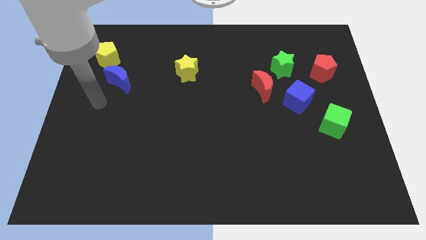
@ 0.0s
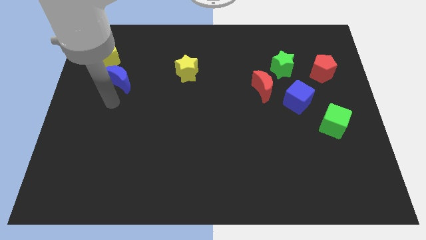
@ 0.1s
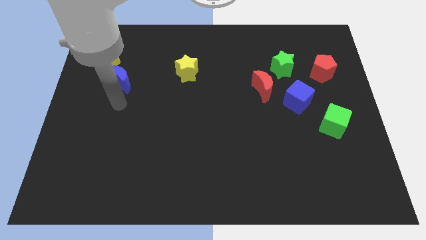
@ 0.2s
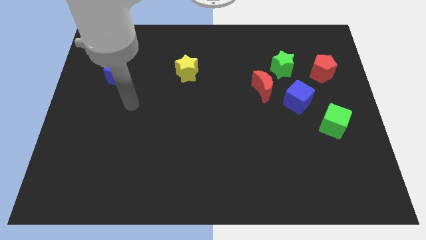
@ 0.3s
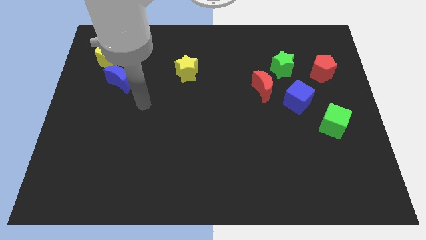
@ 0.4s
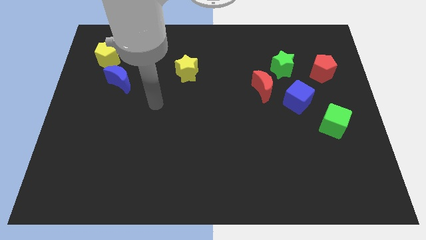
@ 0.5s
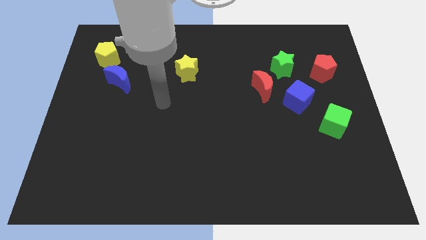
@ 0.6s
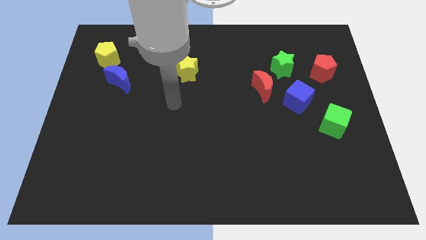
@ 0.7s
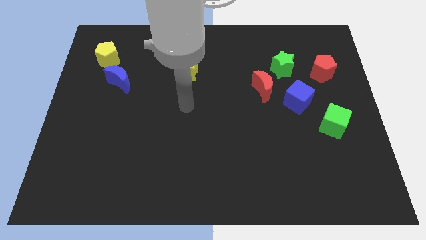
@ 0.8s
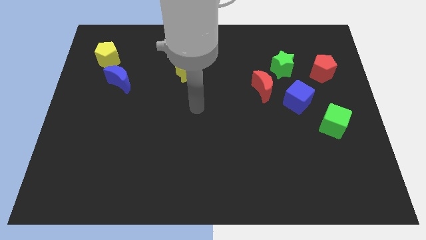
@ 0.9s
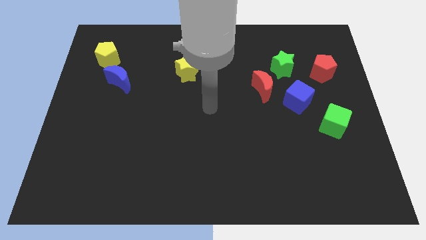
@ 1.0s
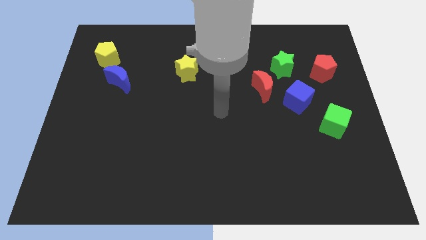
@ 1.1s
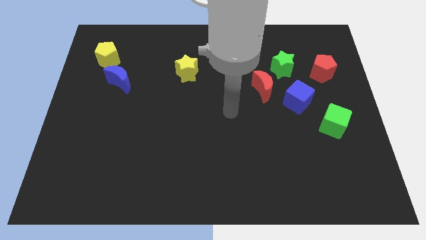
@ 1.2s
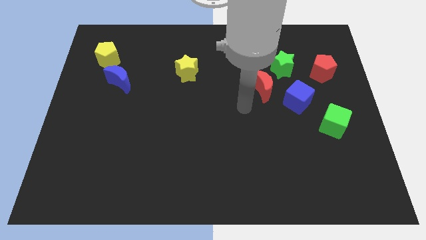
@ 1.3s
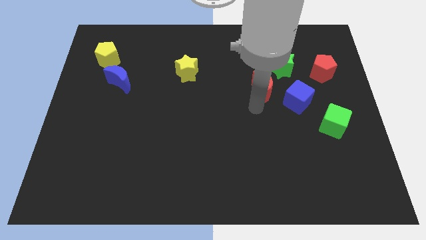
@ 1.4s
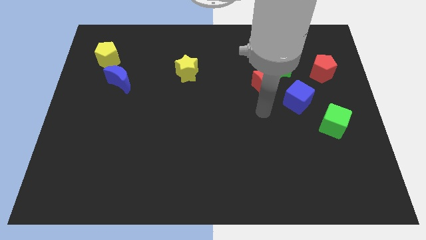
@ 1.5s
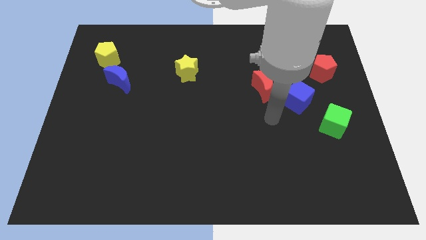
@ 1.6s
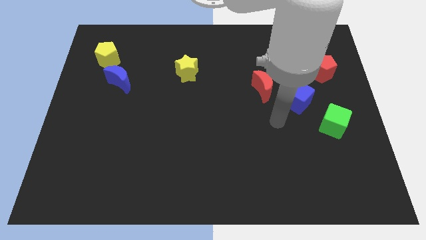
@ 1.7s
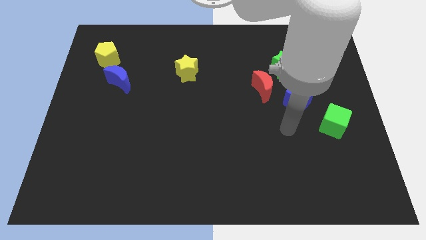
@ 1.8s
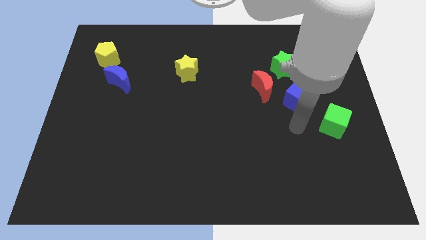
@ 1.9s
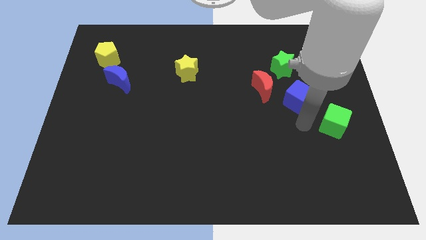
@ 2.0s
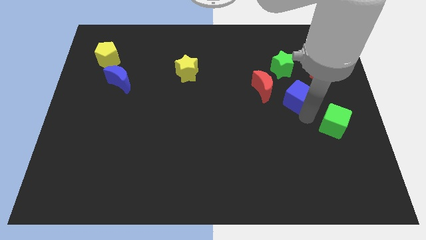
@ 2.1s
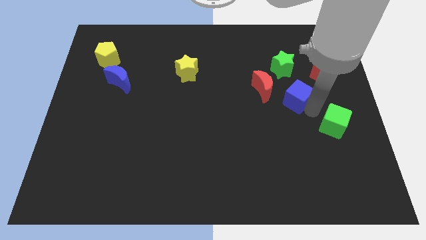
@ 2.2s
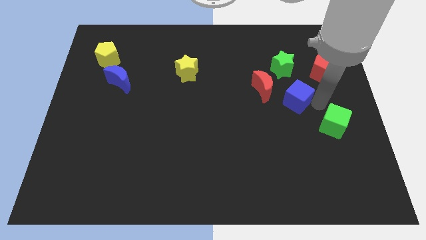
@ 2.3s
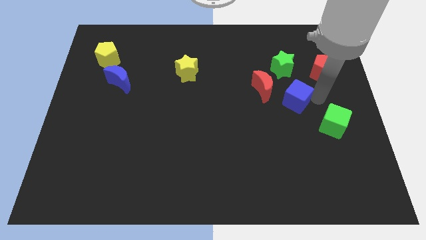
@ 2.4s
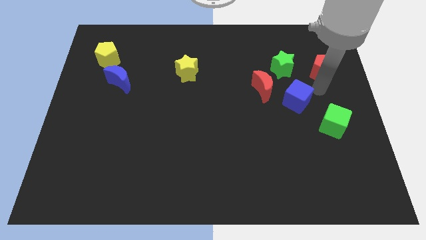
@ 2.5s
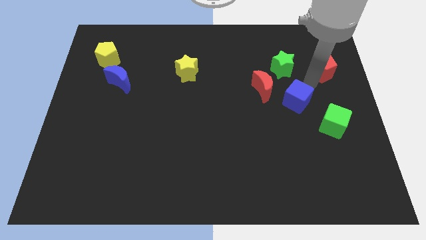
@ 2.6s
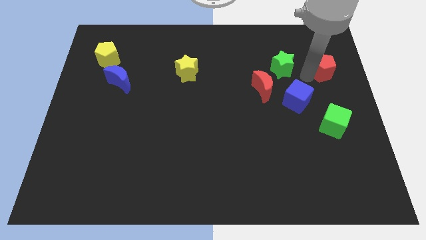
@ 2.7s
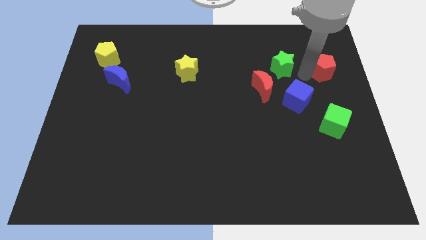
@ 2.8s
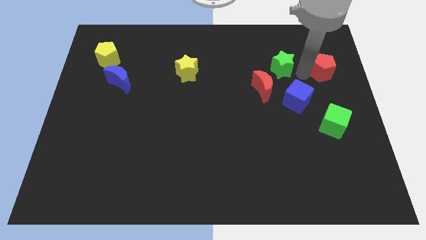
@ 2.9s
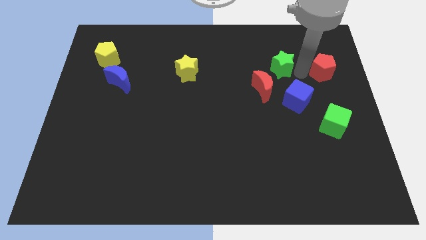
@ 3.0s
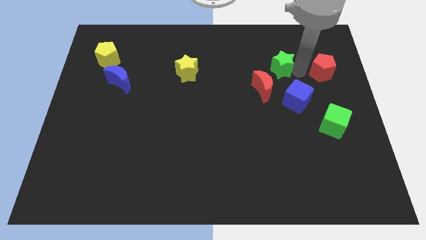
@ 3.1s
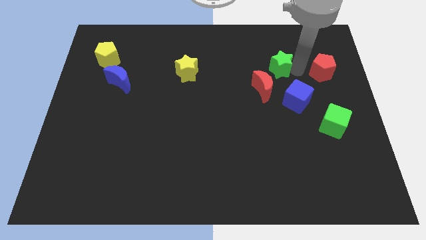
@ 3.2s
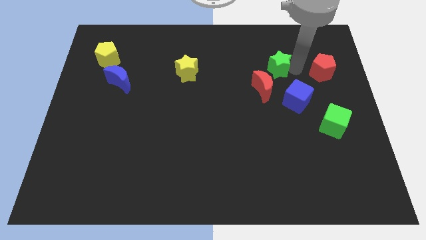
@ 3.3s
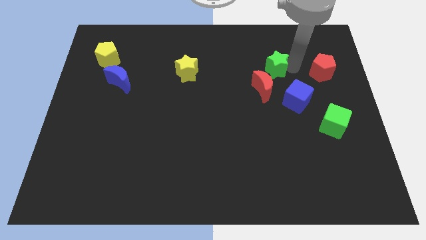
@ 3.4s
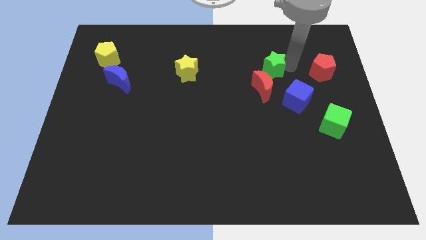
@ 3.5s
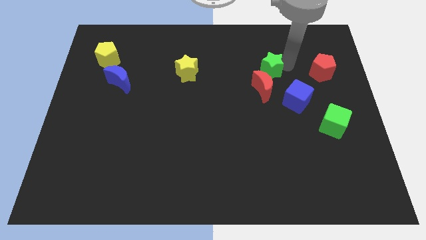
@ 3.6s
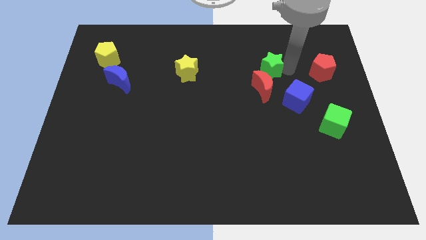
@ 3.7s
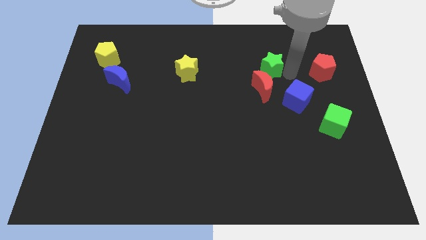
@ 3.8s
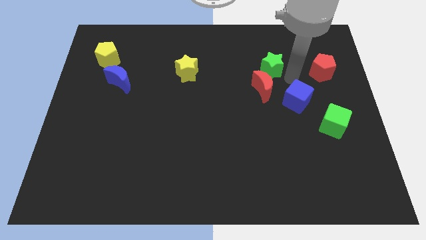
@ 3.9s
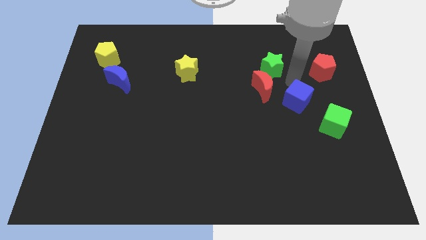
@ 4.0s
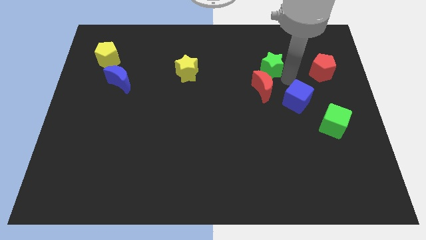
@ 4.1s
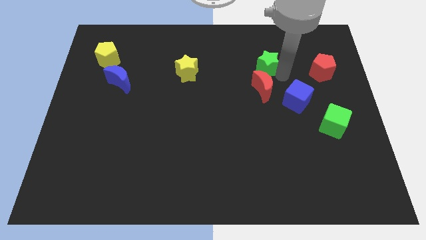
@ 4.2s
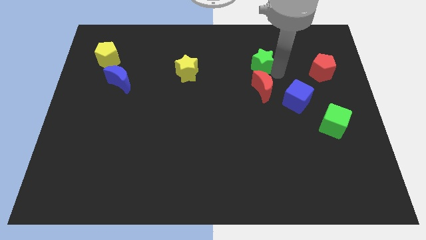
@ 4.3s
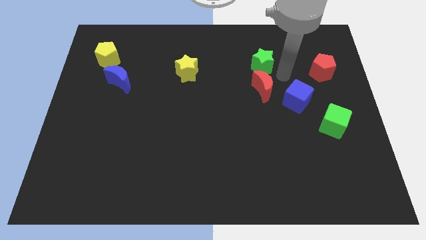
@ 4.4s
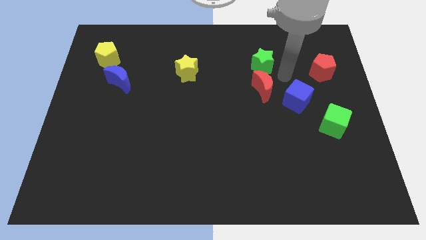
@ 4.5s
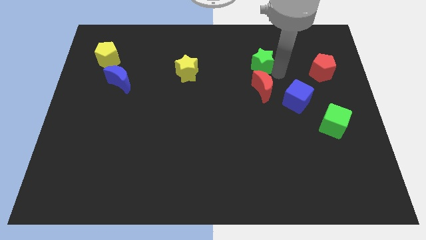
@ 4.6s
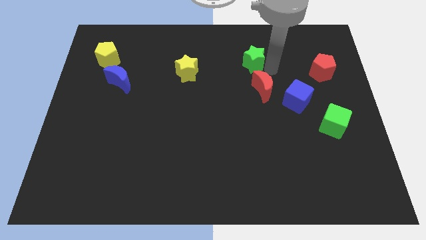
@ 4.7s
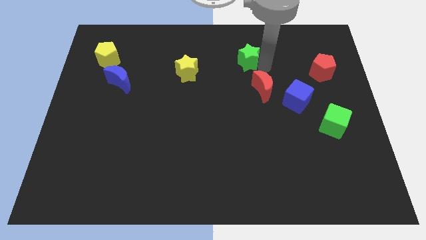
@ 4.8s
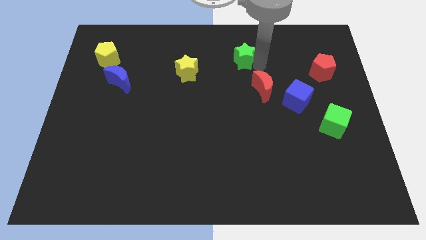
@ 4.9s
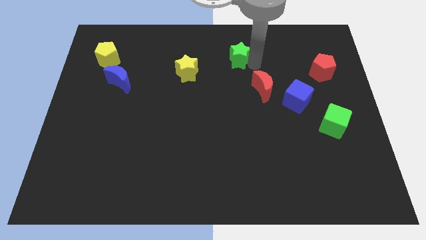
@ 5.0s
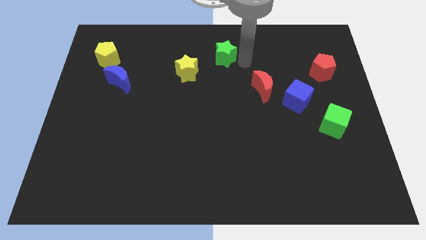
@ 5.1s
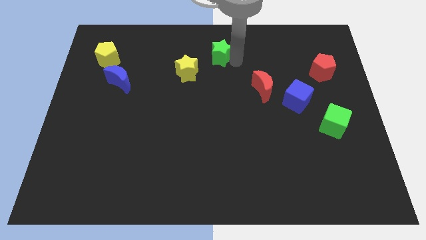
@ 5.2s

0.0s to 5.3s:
move the green star to the top side

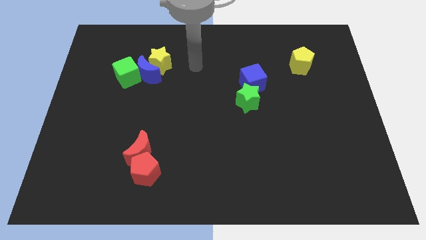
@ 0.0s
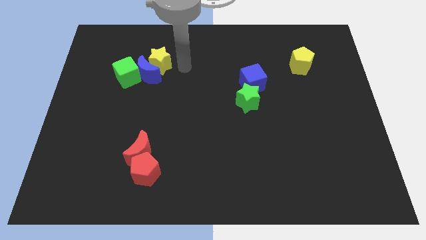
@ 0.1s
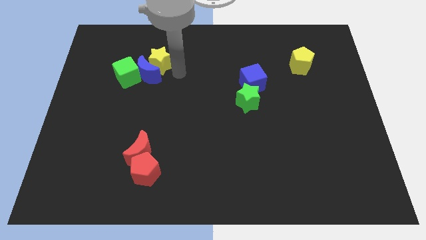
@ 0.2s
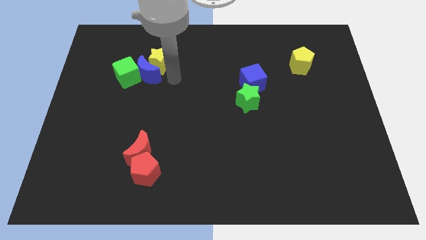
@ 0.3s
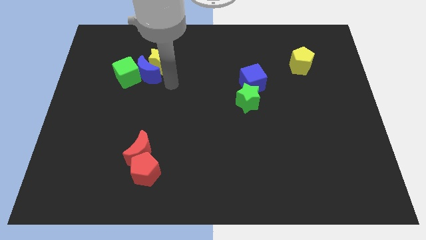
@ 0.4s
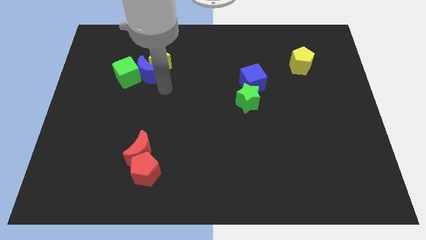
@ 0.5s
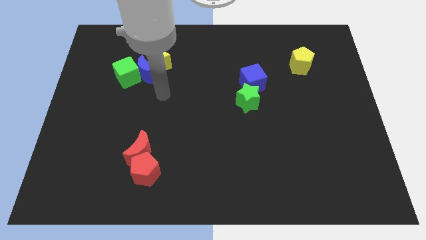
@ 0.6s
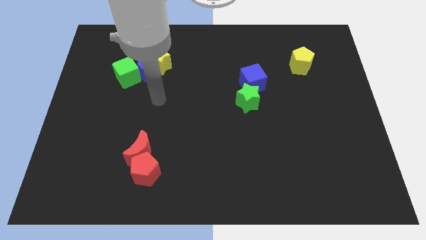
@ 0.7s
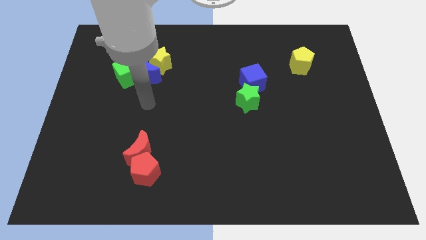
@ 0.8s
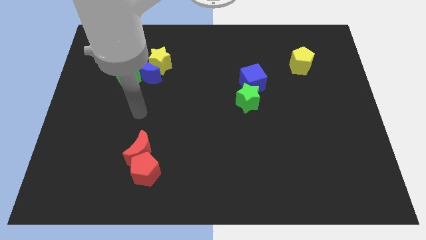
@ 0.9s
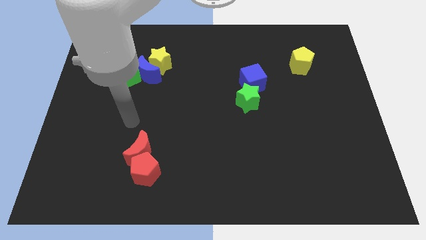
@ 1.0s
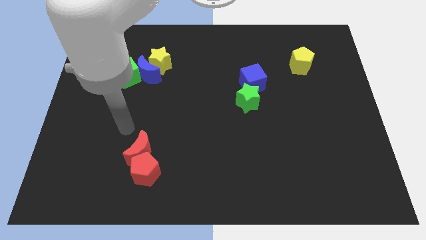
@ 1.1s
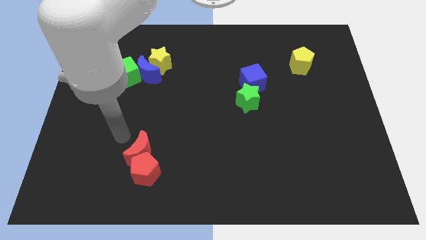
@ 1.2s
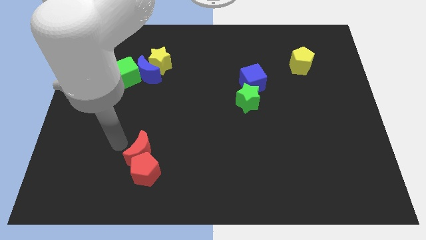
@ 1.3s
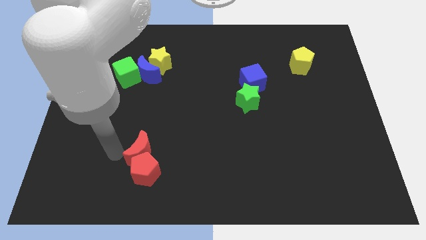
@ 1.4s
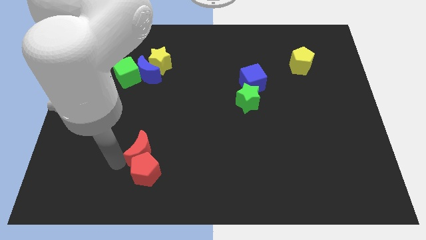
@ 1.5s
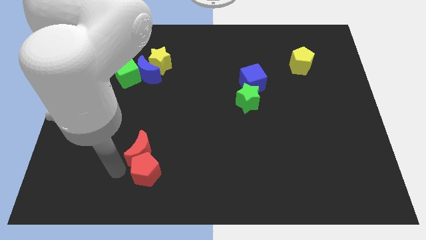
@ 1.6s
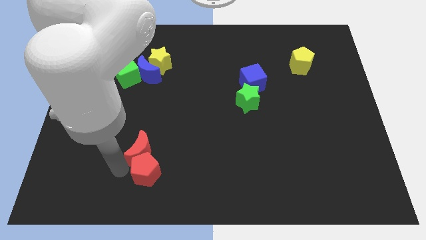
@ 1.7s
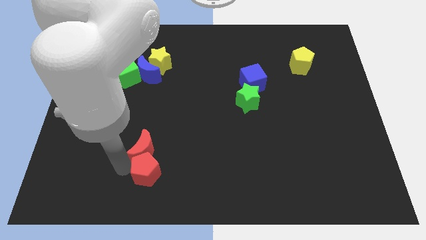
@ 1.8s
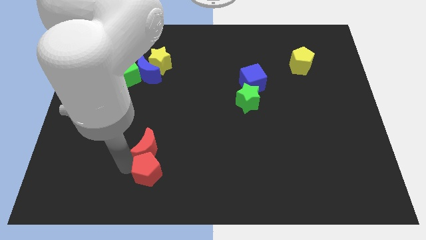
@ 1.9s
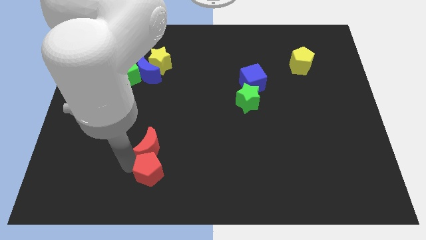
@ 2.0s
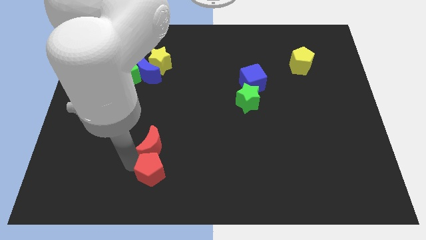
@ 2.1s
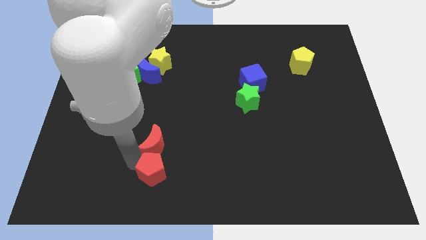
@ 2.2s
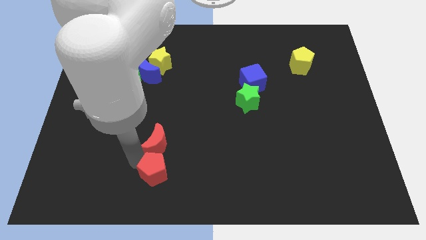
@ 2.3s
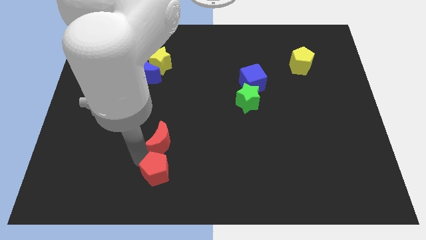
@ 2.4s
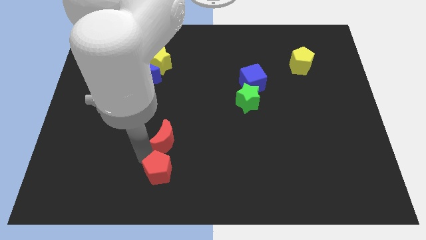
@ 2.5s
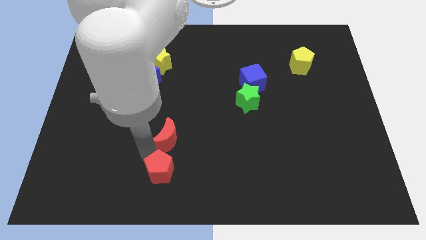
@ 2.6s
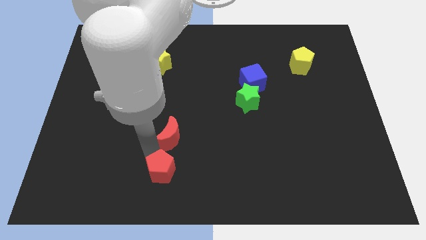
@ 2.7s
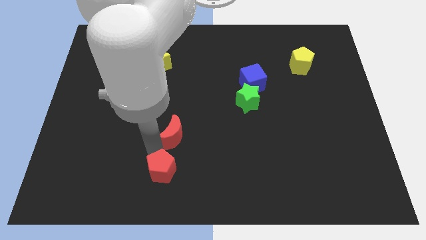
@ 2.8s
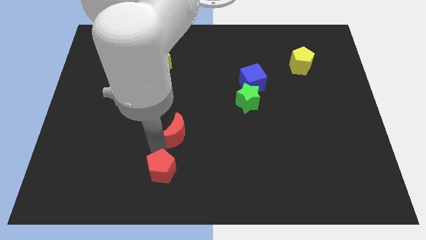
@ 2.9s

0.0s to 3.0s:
slide the red moon to the middle of the board
